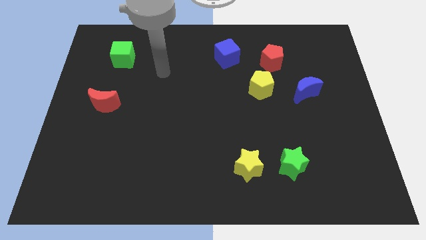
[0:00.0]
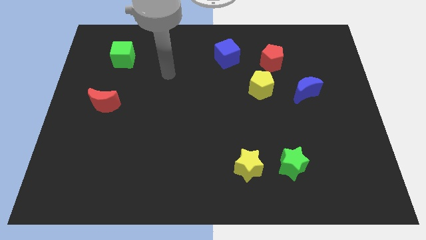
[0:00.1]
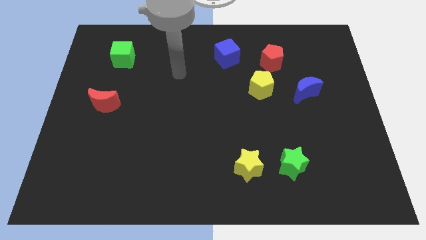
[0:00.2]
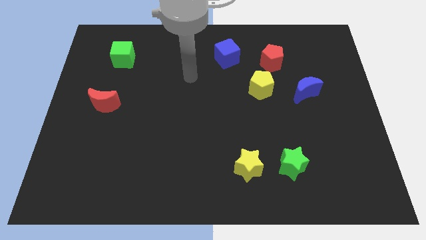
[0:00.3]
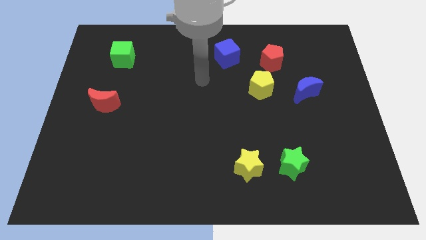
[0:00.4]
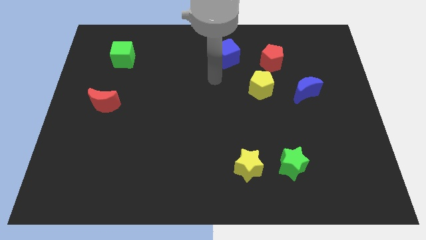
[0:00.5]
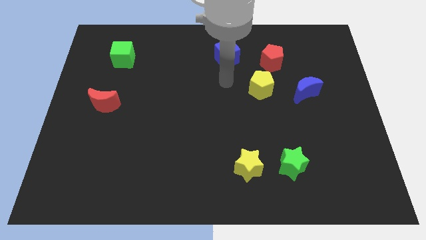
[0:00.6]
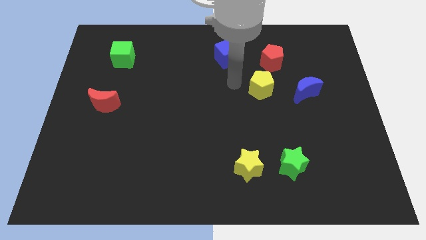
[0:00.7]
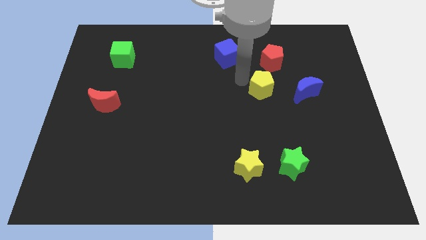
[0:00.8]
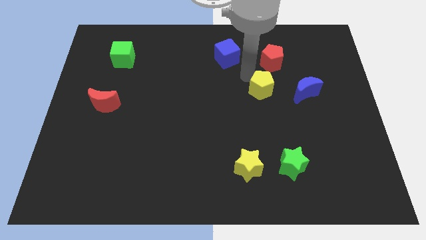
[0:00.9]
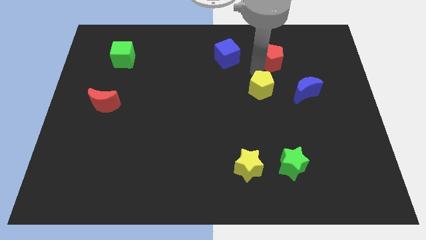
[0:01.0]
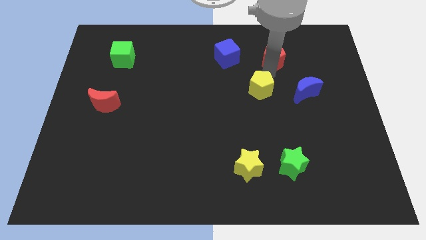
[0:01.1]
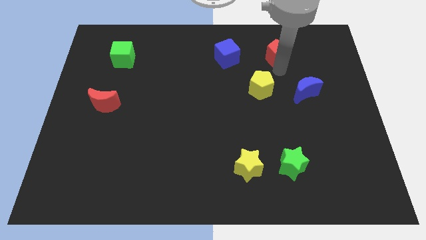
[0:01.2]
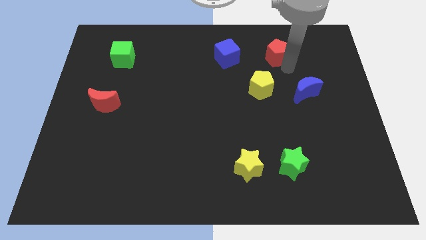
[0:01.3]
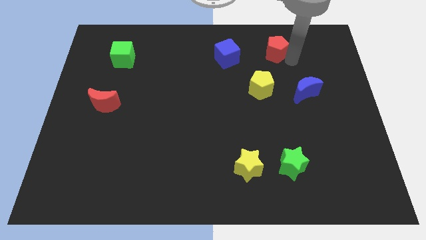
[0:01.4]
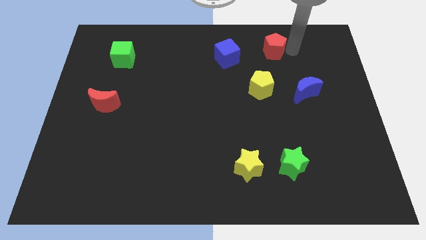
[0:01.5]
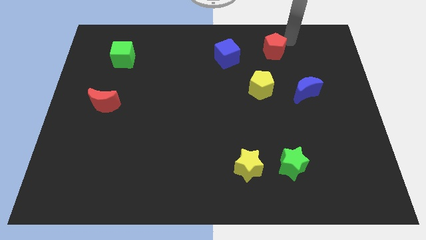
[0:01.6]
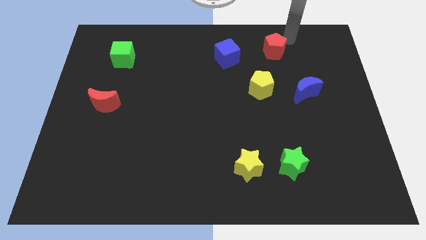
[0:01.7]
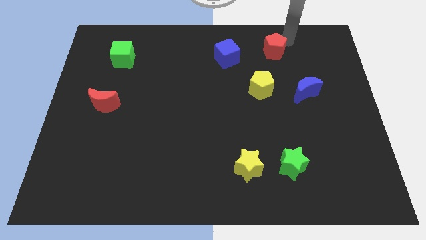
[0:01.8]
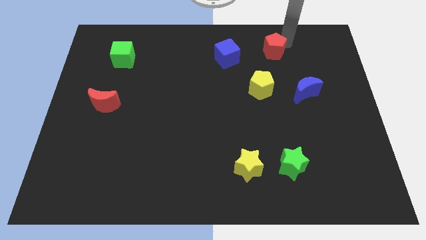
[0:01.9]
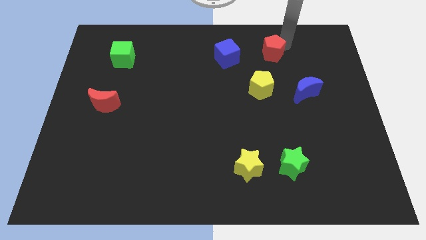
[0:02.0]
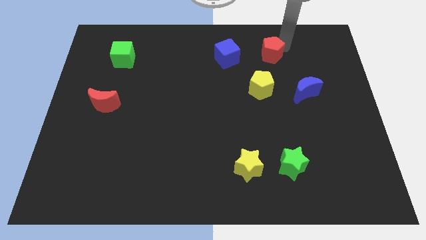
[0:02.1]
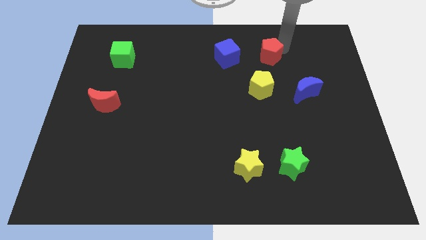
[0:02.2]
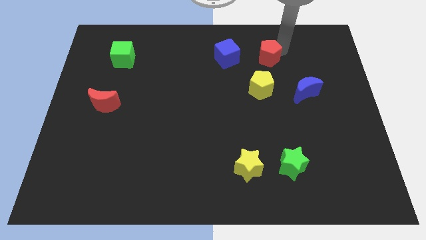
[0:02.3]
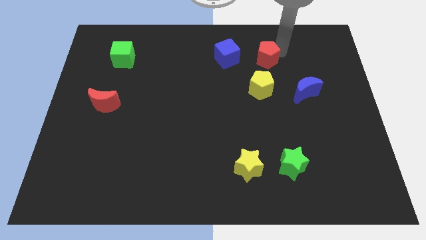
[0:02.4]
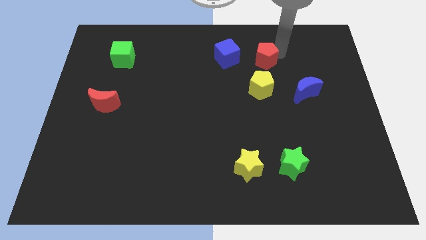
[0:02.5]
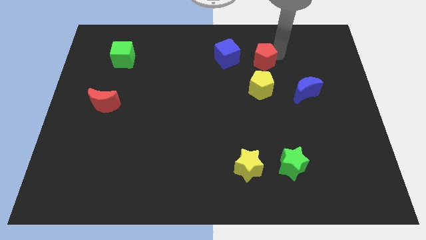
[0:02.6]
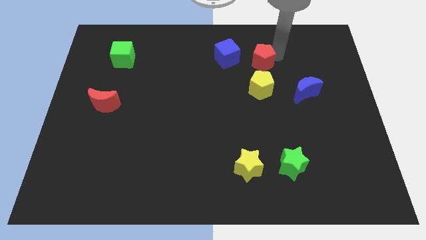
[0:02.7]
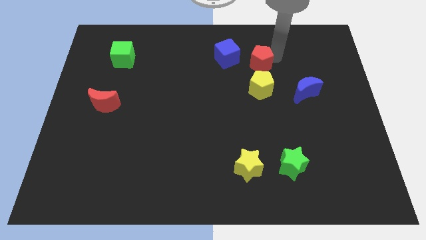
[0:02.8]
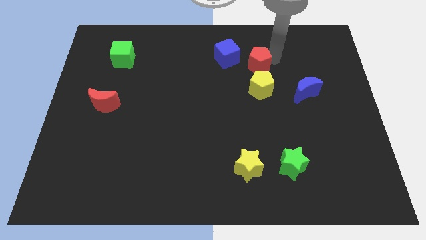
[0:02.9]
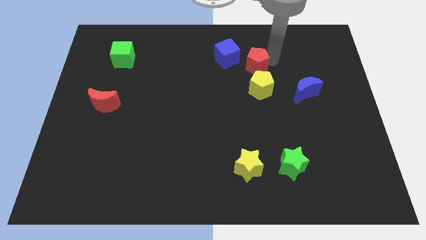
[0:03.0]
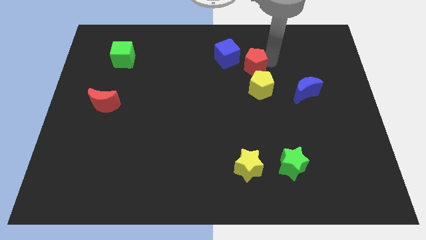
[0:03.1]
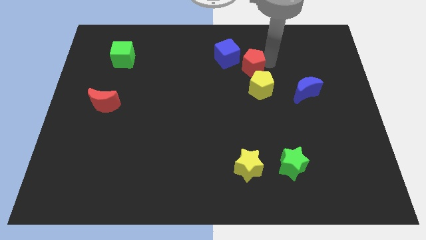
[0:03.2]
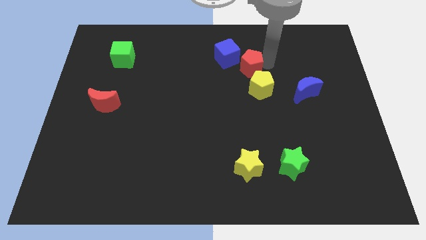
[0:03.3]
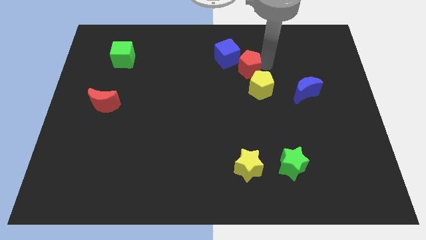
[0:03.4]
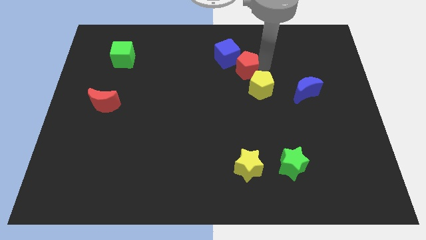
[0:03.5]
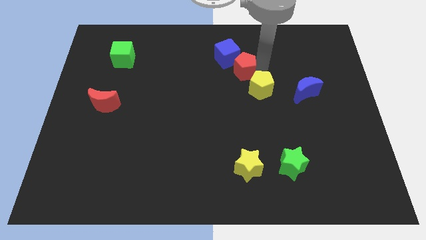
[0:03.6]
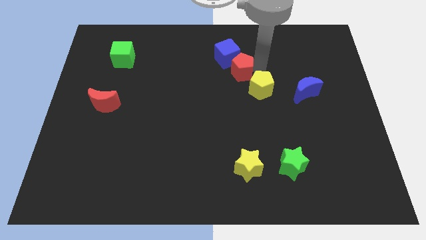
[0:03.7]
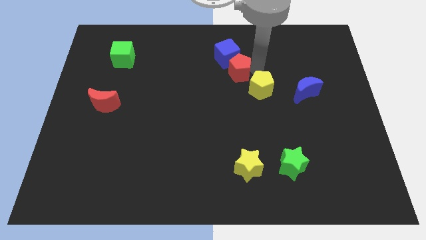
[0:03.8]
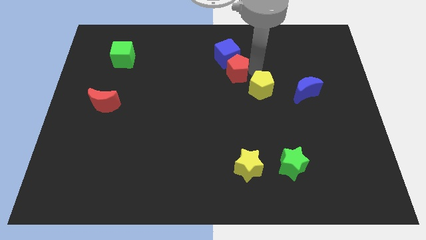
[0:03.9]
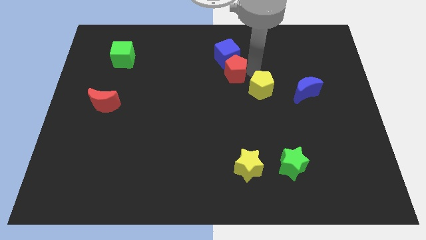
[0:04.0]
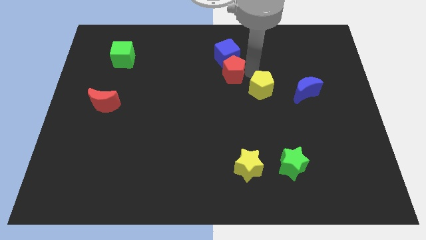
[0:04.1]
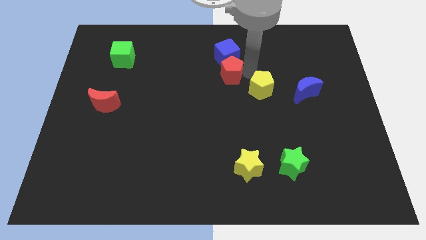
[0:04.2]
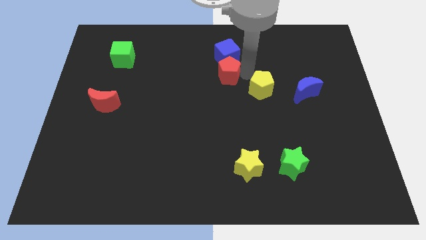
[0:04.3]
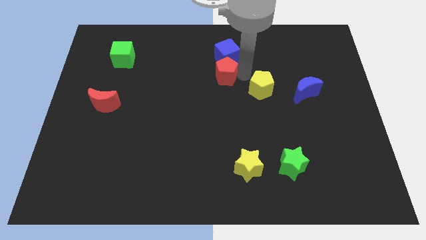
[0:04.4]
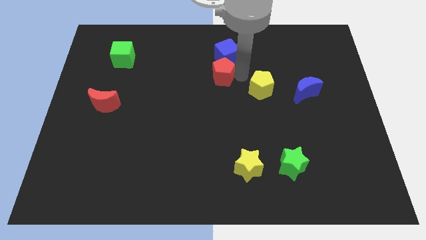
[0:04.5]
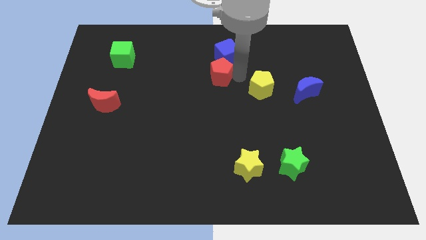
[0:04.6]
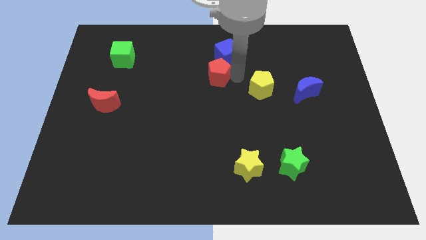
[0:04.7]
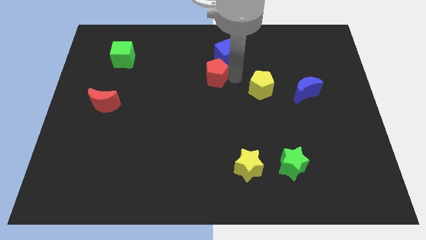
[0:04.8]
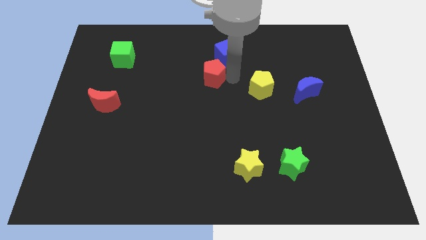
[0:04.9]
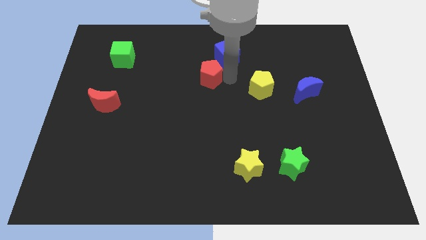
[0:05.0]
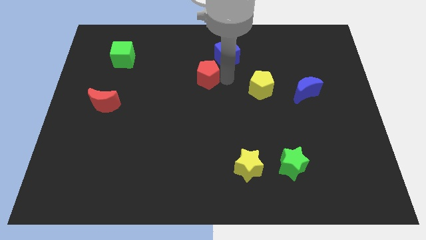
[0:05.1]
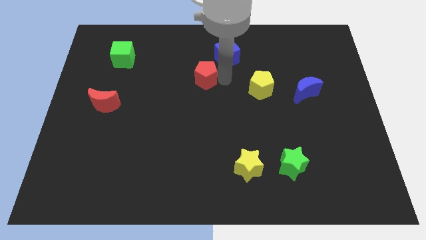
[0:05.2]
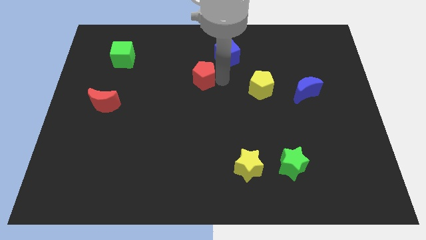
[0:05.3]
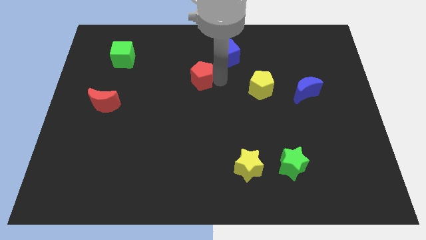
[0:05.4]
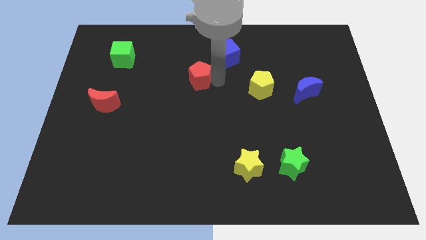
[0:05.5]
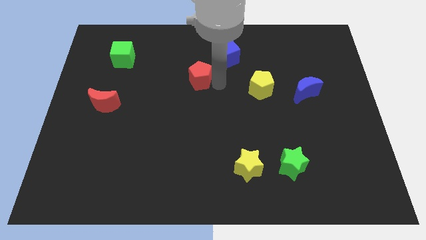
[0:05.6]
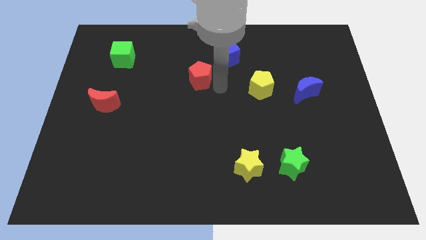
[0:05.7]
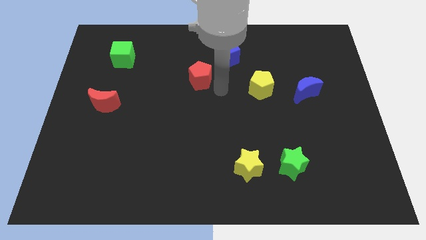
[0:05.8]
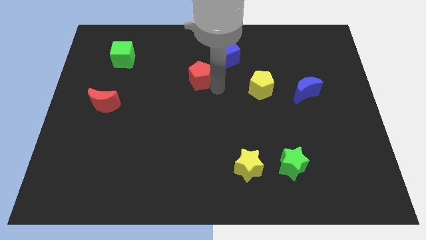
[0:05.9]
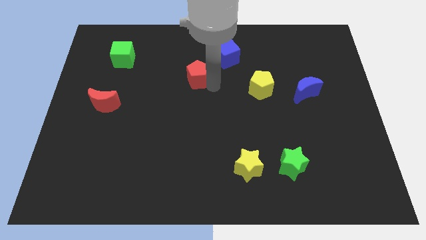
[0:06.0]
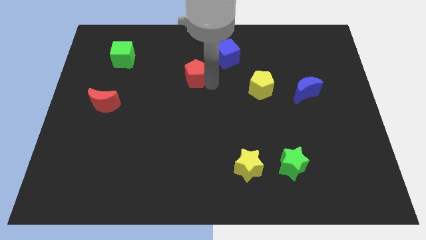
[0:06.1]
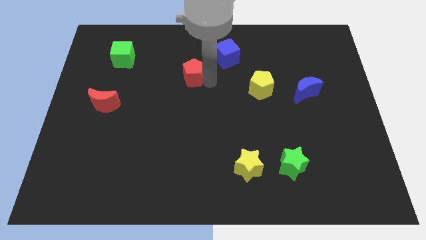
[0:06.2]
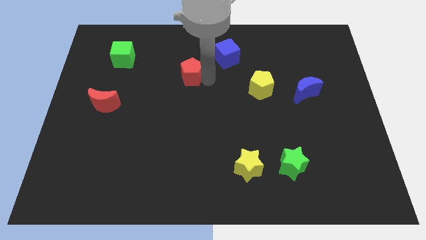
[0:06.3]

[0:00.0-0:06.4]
slide the red pentagon left

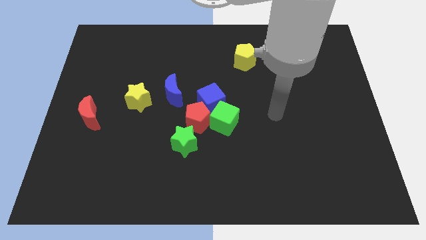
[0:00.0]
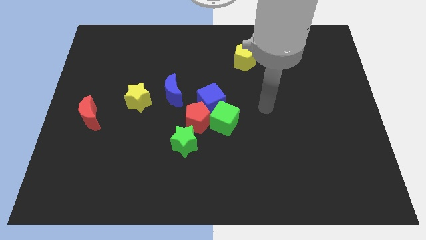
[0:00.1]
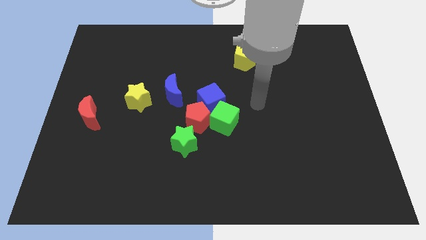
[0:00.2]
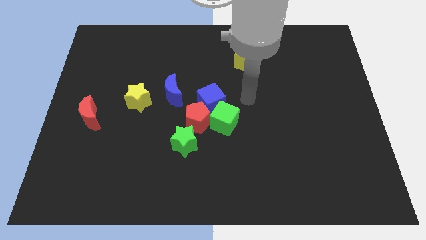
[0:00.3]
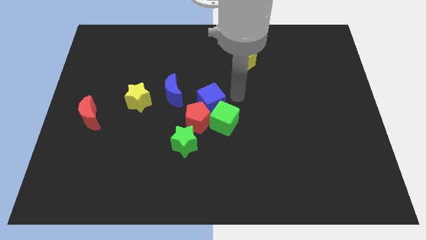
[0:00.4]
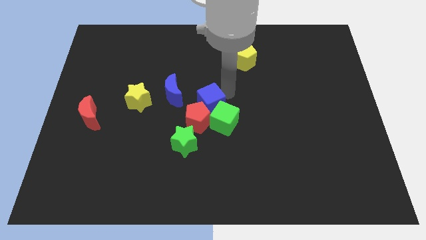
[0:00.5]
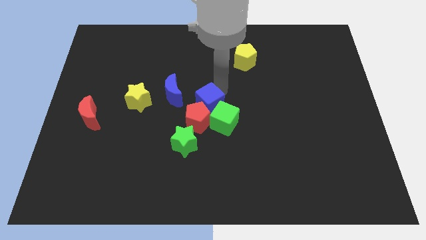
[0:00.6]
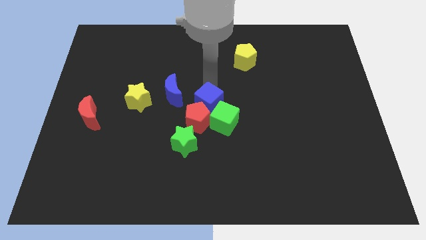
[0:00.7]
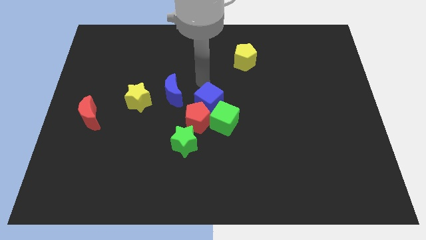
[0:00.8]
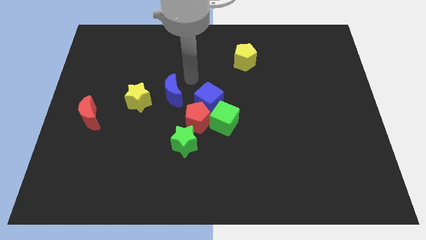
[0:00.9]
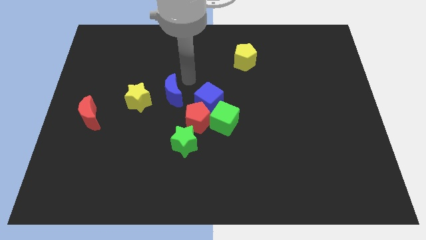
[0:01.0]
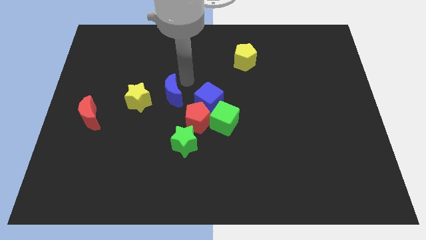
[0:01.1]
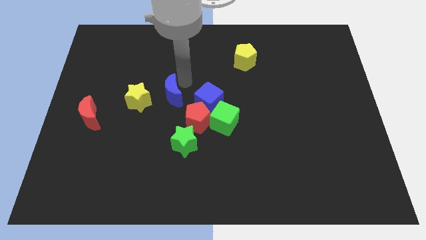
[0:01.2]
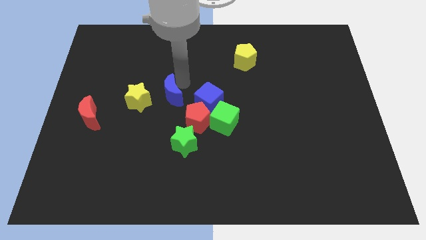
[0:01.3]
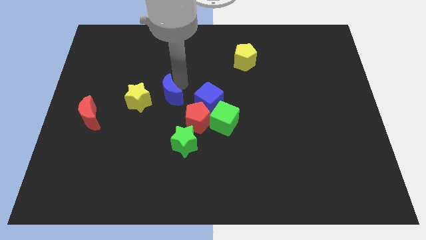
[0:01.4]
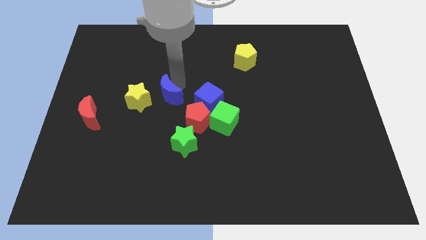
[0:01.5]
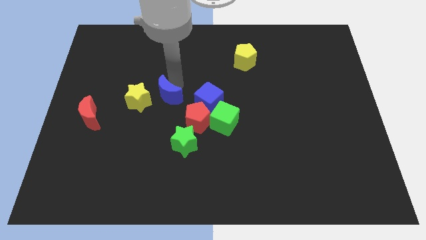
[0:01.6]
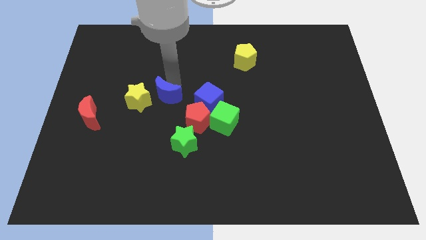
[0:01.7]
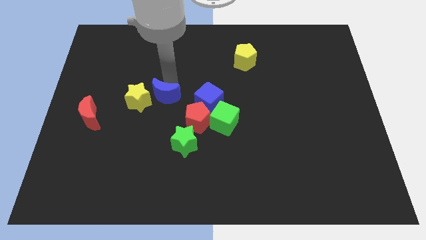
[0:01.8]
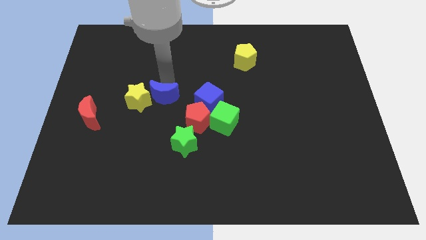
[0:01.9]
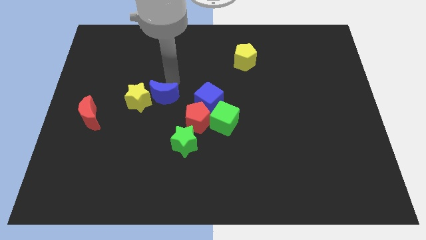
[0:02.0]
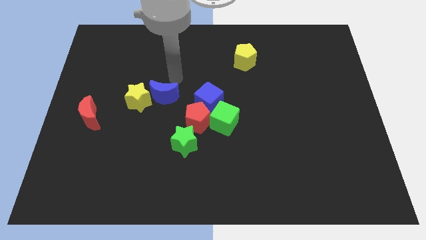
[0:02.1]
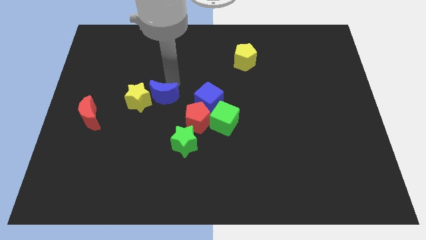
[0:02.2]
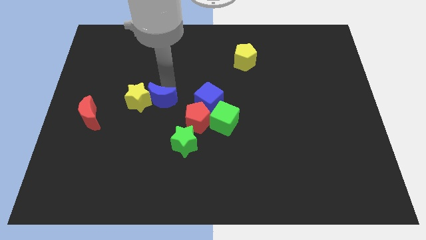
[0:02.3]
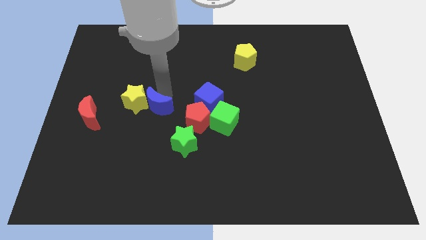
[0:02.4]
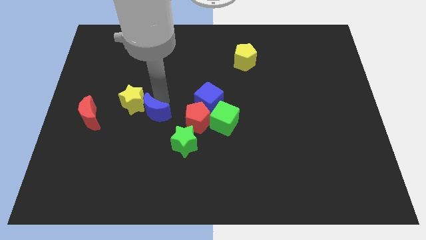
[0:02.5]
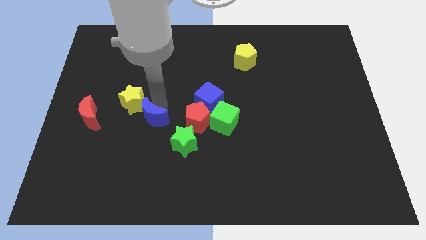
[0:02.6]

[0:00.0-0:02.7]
slightly move the blue moon down and left
